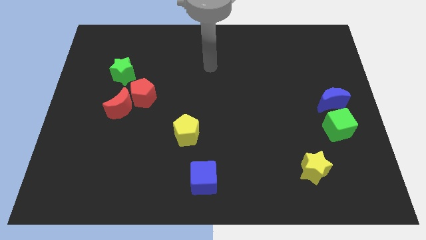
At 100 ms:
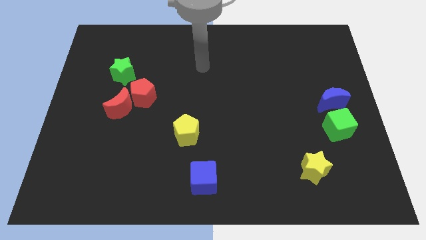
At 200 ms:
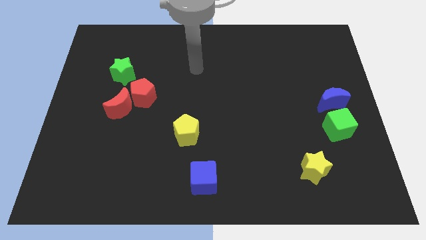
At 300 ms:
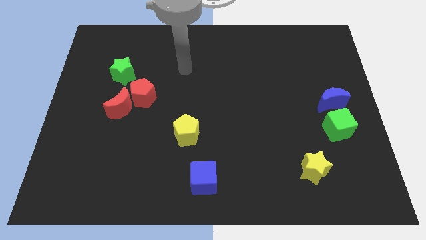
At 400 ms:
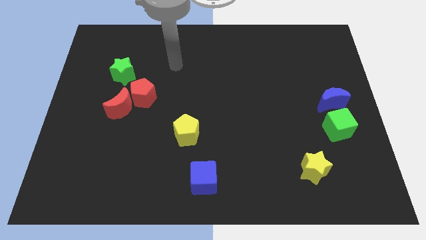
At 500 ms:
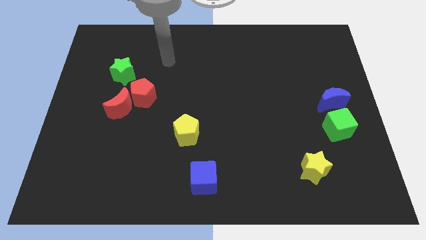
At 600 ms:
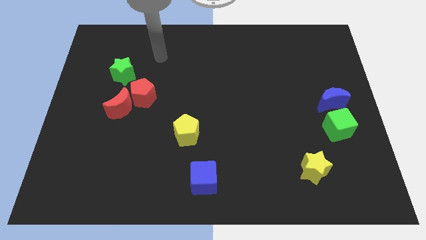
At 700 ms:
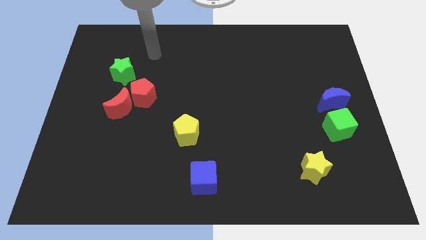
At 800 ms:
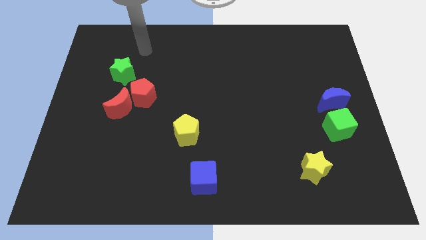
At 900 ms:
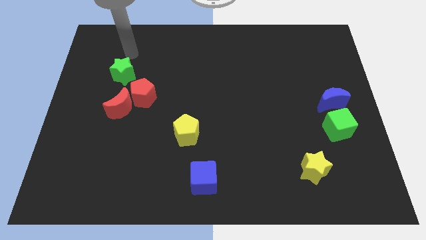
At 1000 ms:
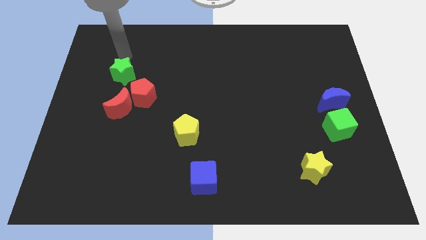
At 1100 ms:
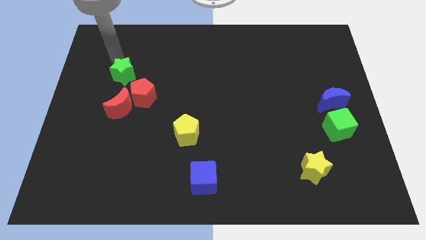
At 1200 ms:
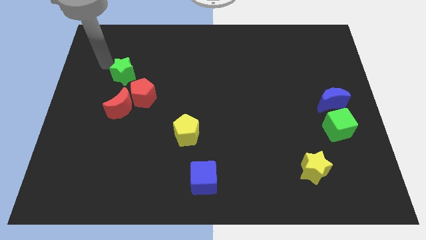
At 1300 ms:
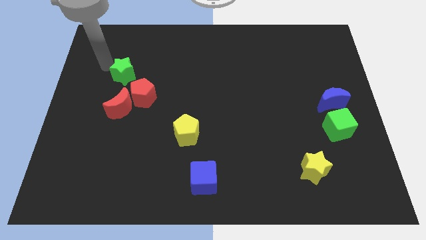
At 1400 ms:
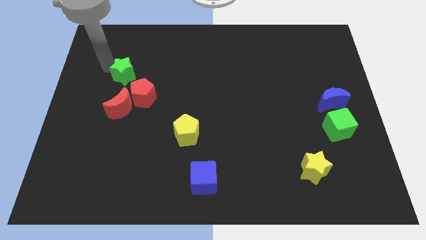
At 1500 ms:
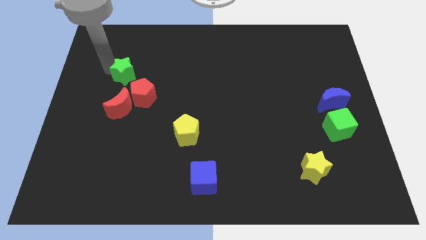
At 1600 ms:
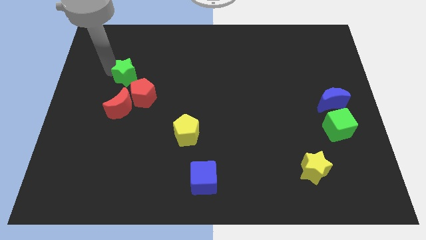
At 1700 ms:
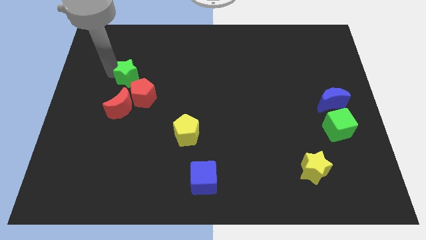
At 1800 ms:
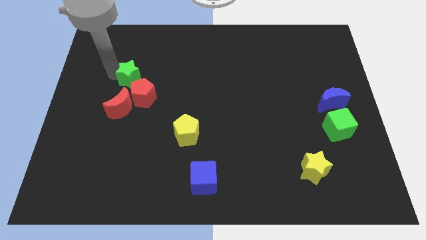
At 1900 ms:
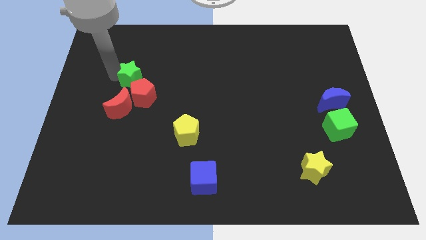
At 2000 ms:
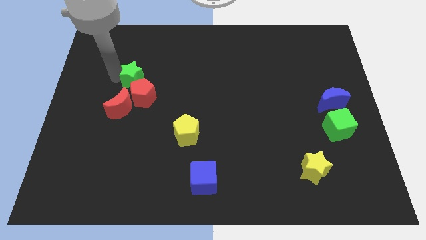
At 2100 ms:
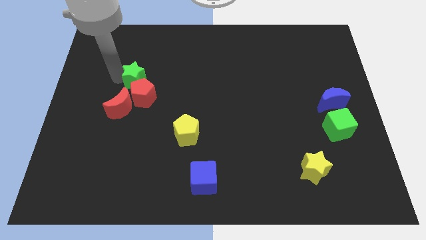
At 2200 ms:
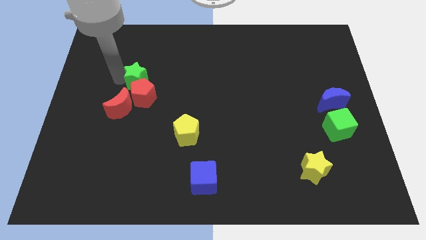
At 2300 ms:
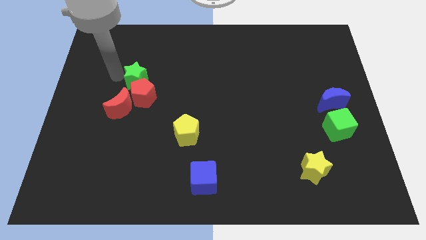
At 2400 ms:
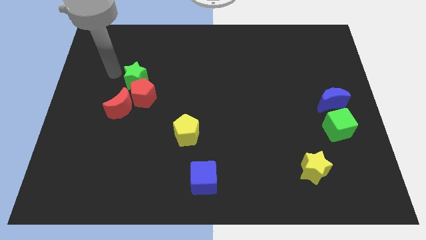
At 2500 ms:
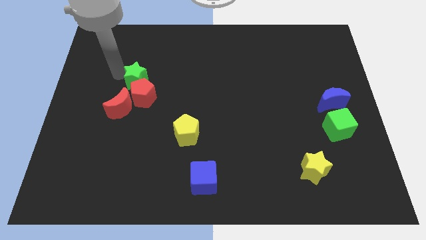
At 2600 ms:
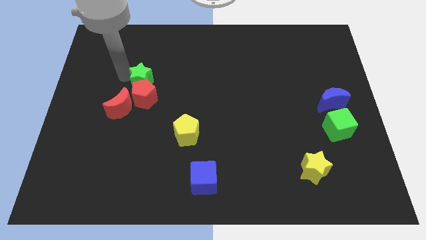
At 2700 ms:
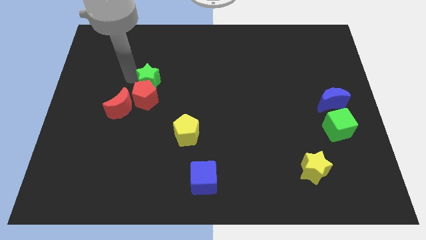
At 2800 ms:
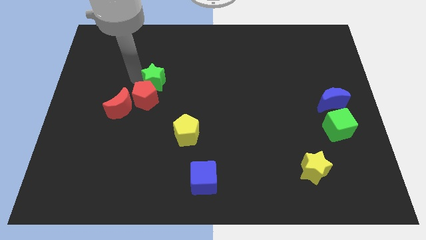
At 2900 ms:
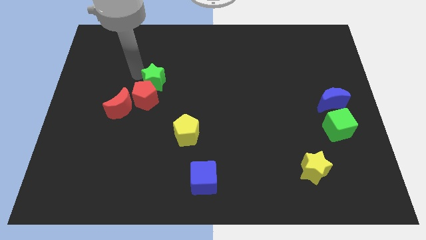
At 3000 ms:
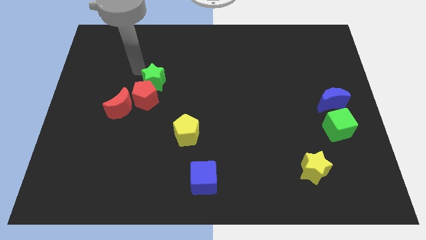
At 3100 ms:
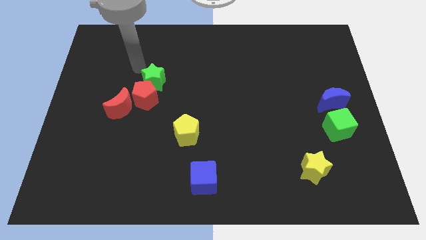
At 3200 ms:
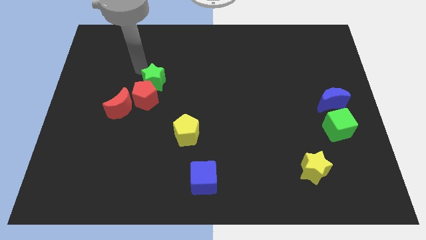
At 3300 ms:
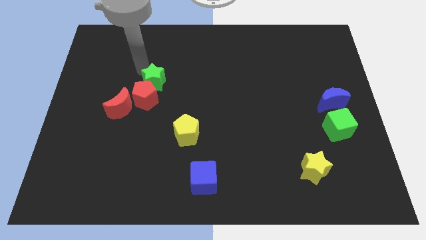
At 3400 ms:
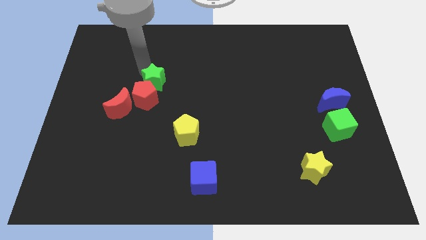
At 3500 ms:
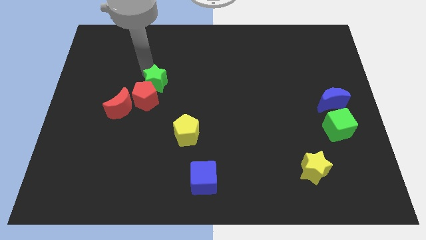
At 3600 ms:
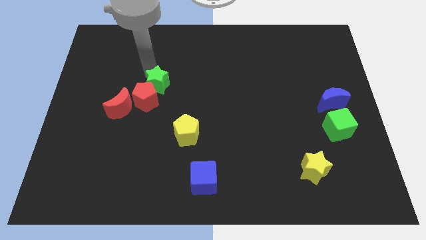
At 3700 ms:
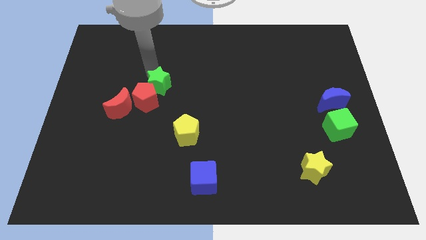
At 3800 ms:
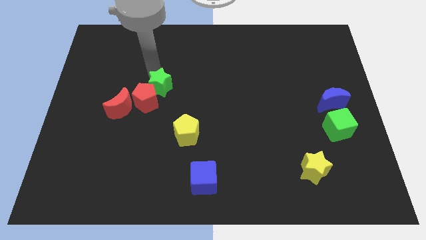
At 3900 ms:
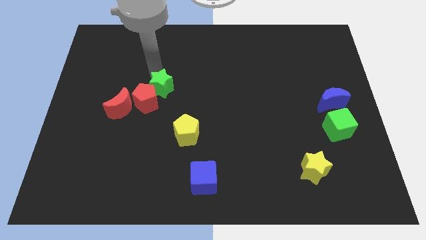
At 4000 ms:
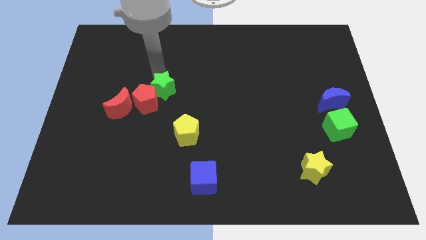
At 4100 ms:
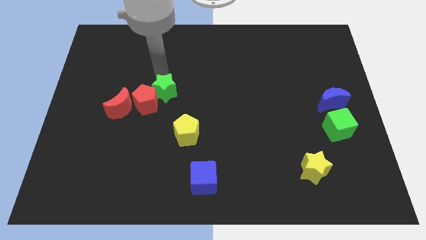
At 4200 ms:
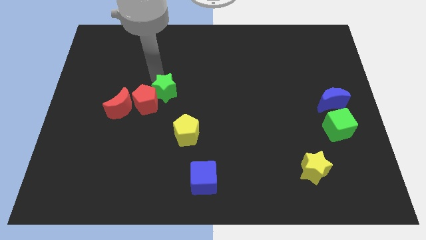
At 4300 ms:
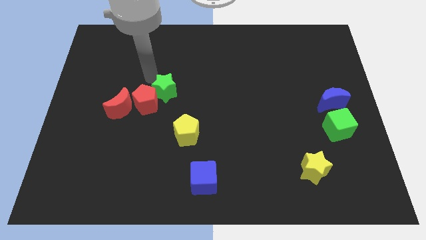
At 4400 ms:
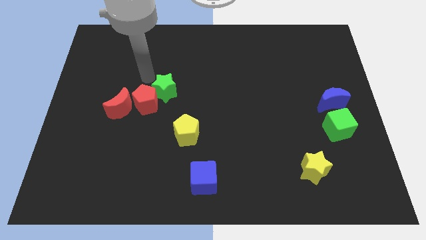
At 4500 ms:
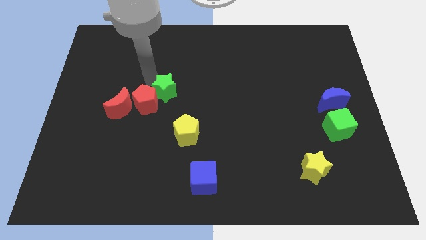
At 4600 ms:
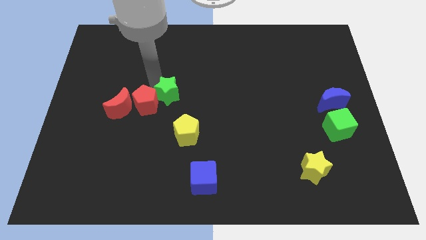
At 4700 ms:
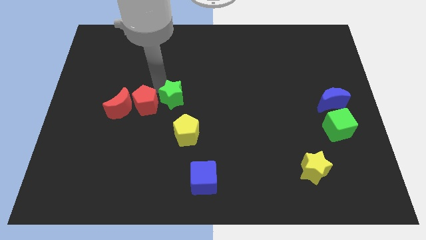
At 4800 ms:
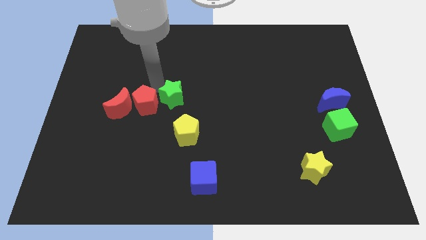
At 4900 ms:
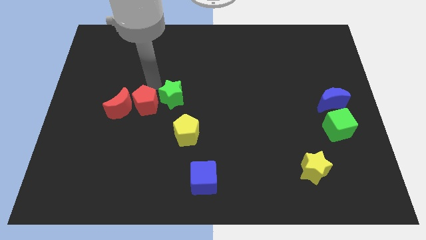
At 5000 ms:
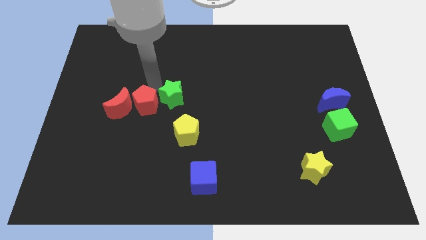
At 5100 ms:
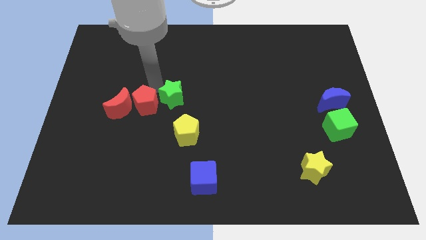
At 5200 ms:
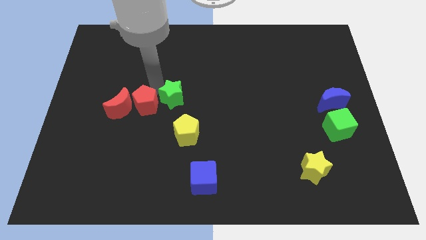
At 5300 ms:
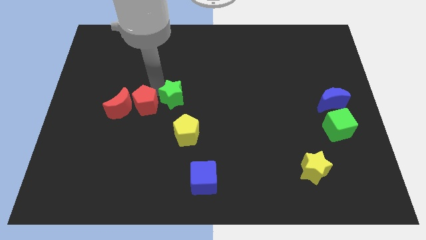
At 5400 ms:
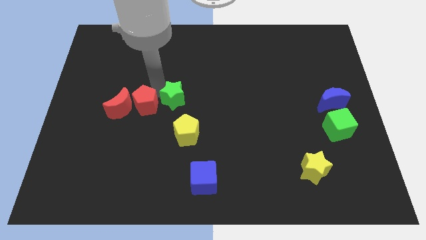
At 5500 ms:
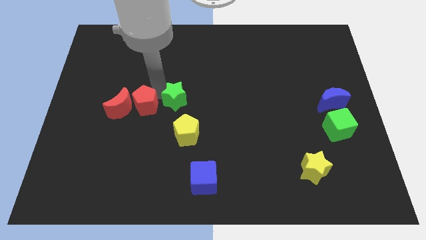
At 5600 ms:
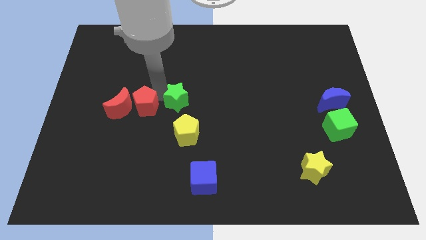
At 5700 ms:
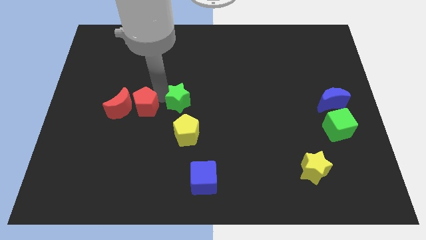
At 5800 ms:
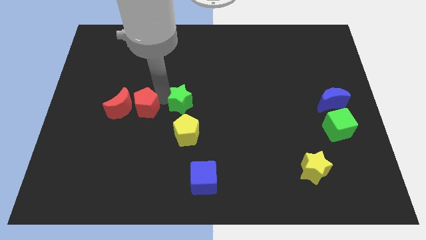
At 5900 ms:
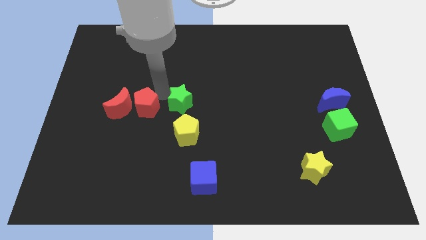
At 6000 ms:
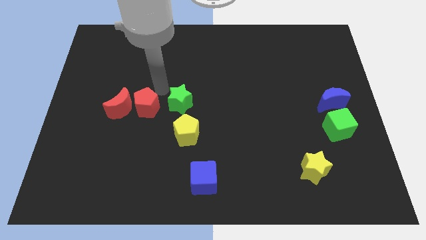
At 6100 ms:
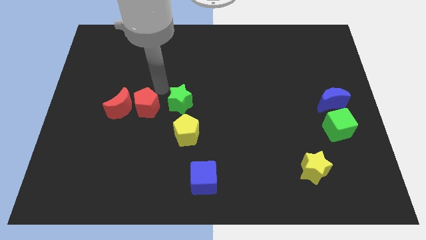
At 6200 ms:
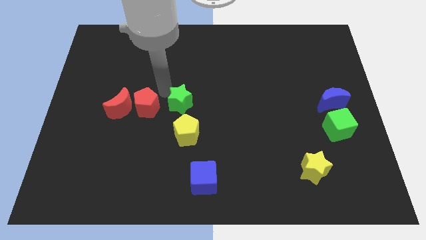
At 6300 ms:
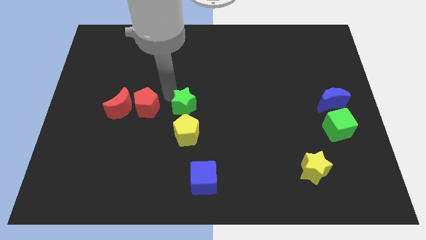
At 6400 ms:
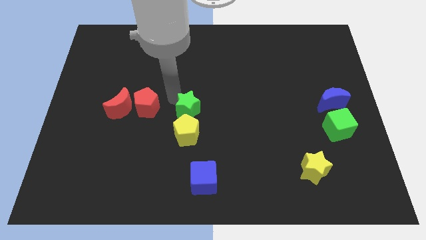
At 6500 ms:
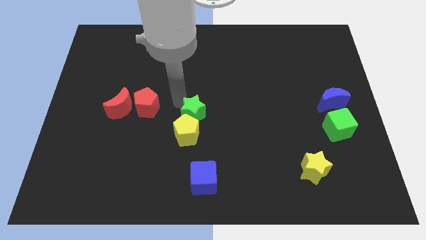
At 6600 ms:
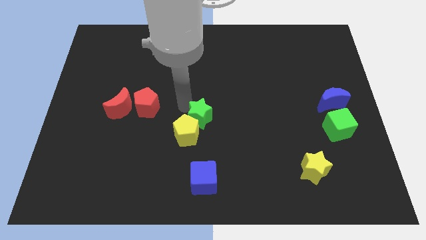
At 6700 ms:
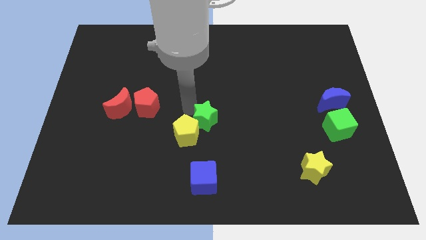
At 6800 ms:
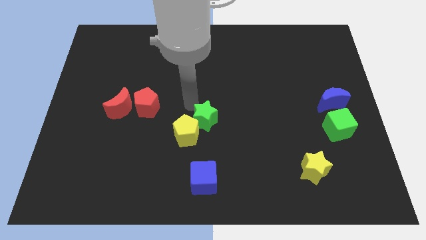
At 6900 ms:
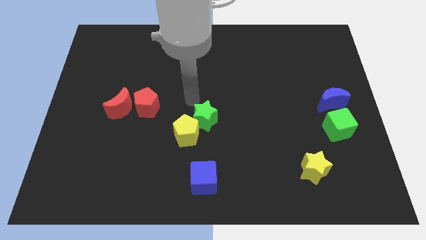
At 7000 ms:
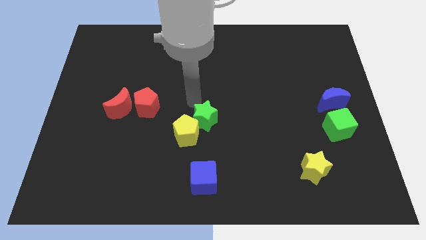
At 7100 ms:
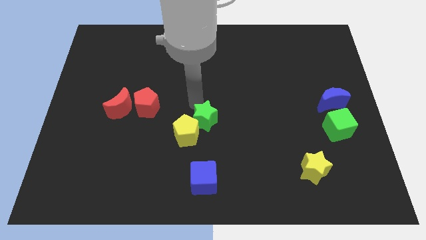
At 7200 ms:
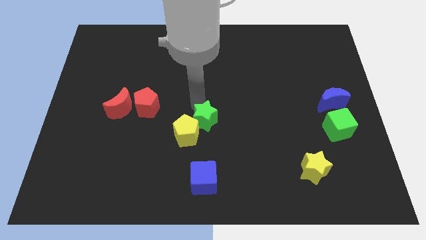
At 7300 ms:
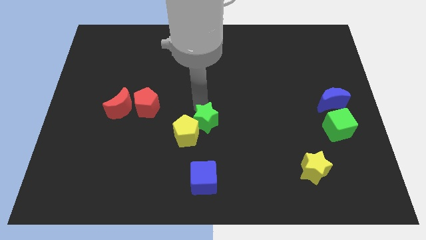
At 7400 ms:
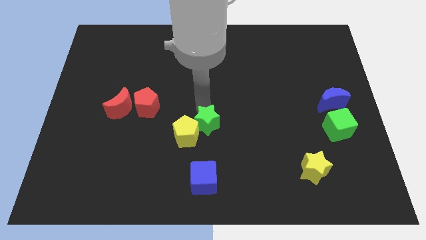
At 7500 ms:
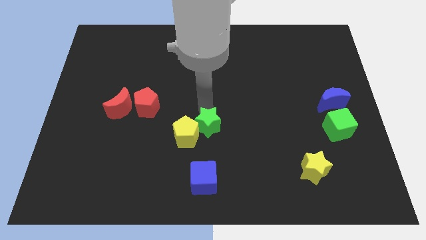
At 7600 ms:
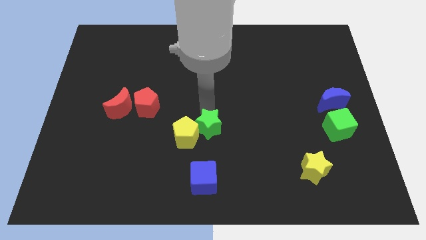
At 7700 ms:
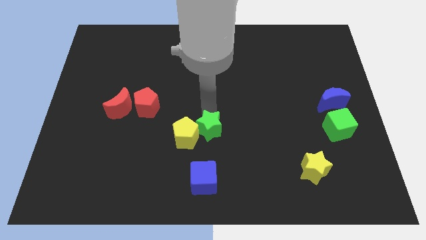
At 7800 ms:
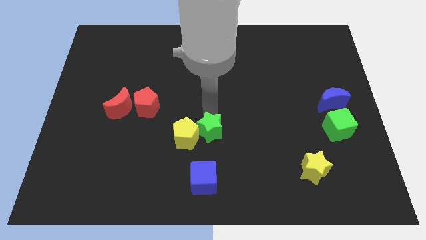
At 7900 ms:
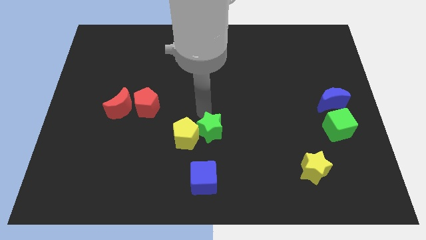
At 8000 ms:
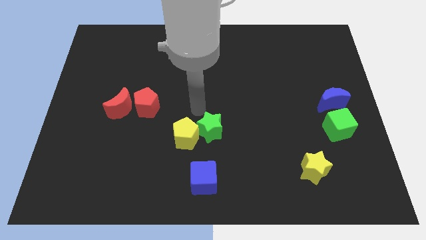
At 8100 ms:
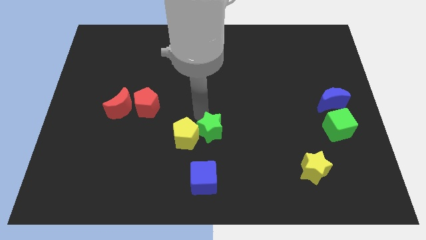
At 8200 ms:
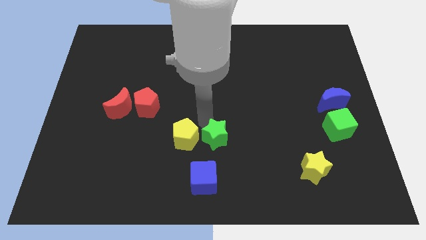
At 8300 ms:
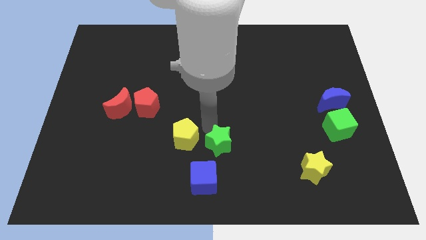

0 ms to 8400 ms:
put the green star to the top right of the blue cube
